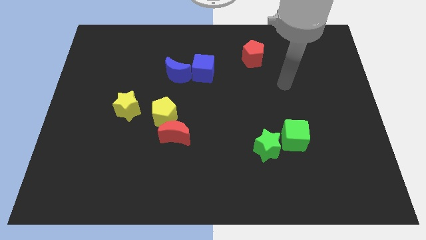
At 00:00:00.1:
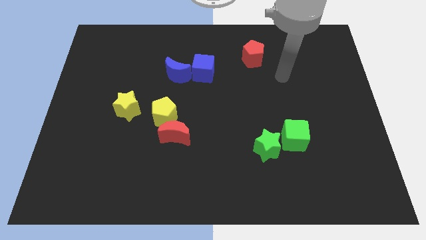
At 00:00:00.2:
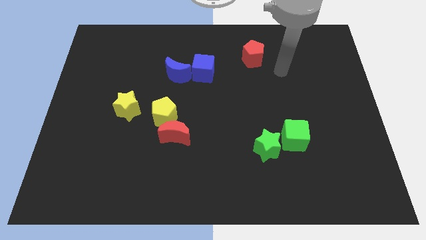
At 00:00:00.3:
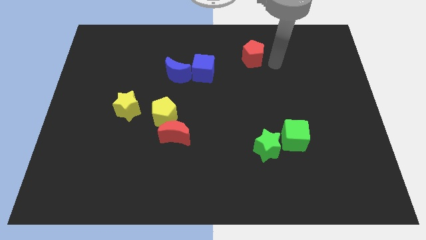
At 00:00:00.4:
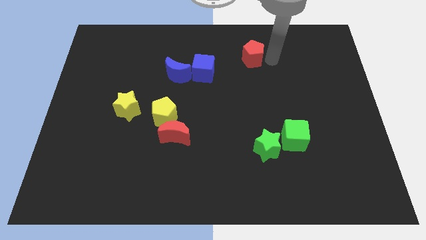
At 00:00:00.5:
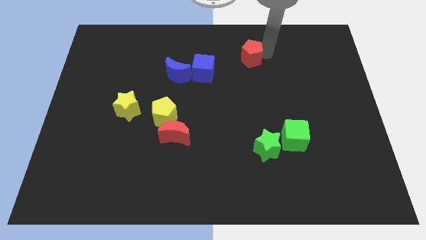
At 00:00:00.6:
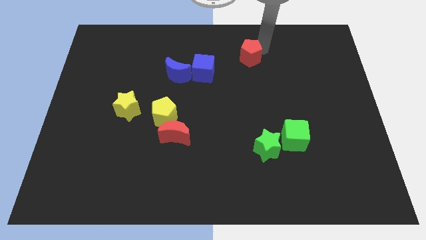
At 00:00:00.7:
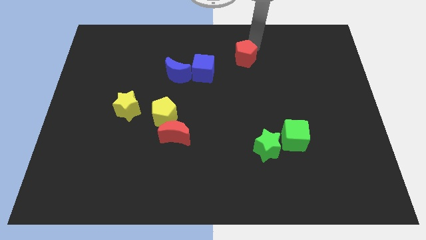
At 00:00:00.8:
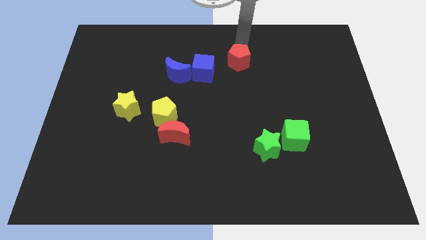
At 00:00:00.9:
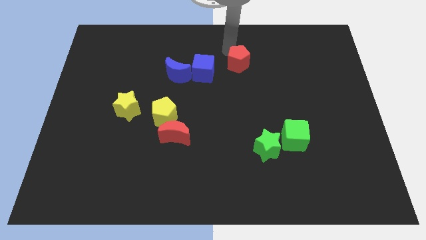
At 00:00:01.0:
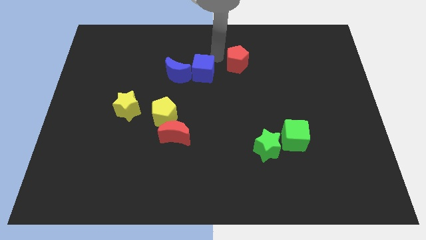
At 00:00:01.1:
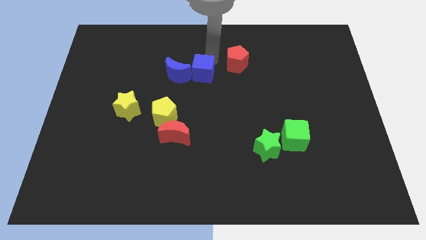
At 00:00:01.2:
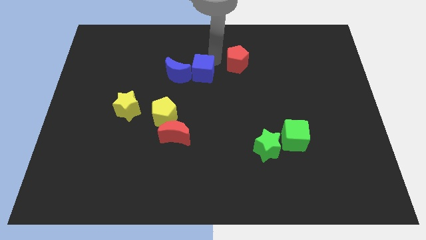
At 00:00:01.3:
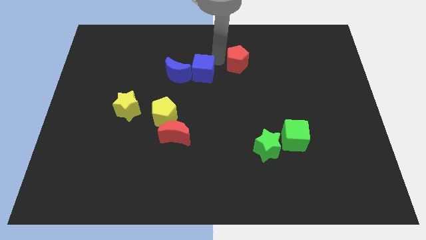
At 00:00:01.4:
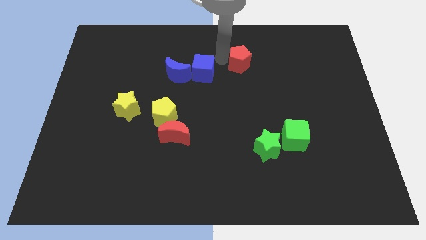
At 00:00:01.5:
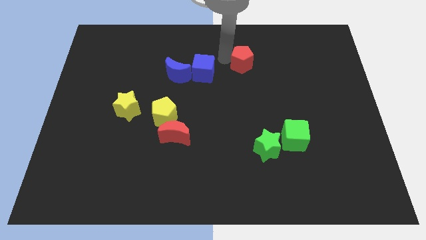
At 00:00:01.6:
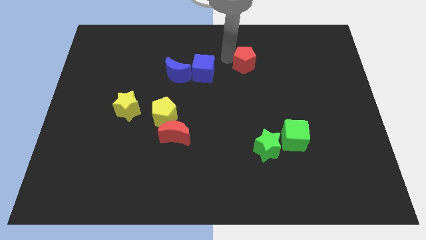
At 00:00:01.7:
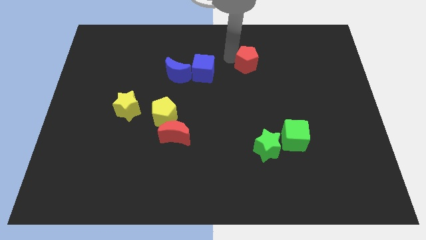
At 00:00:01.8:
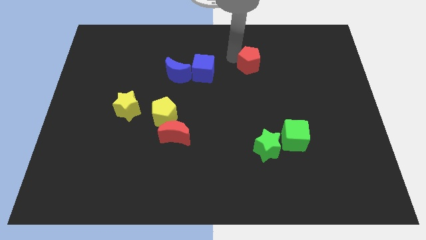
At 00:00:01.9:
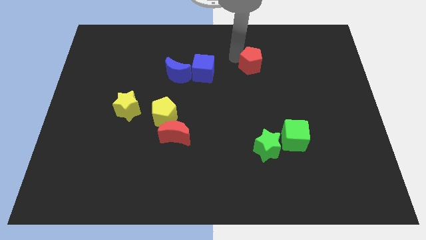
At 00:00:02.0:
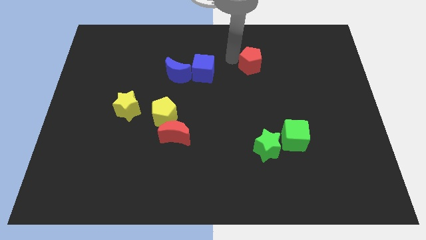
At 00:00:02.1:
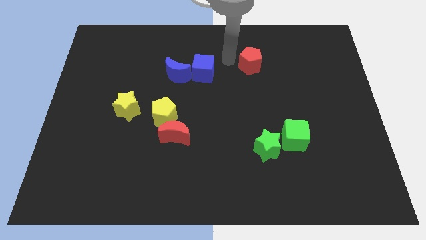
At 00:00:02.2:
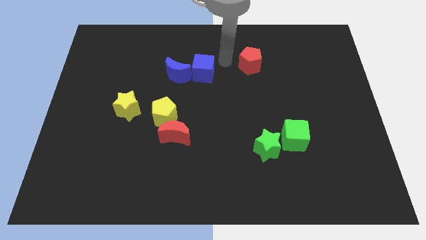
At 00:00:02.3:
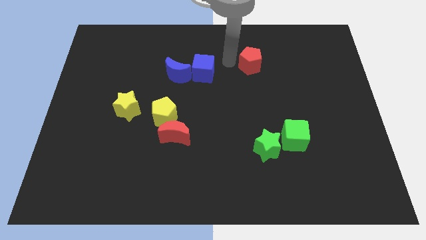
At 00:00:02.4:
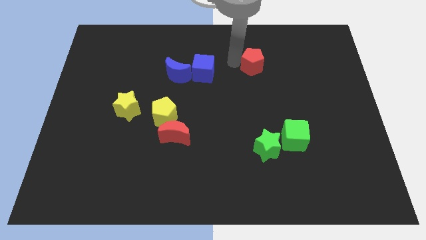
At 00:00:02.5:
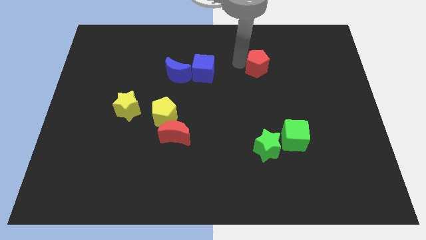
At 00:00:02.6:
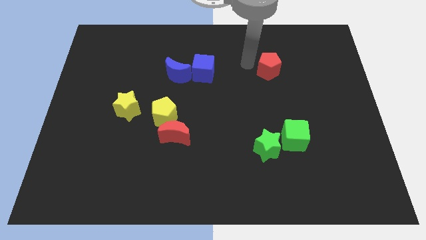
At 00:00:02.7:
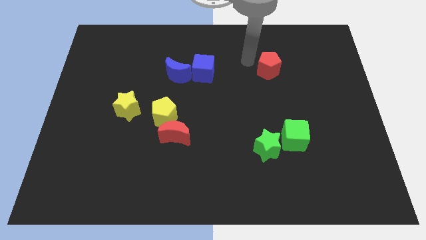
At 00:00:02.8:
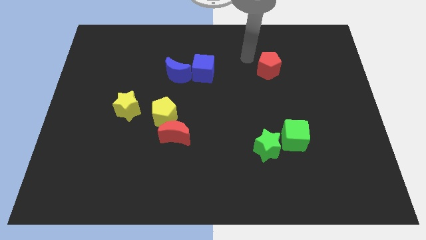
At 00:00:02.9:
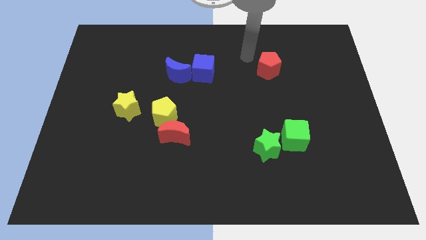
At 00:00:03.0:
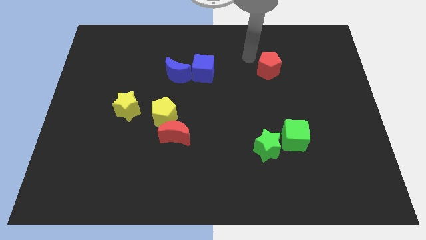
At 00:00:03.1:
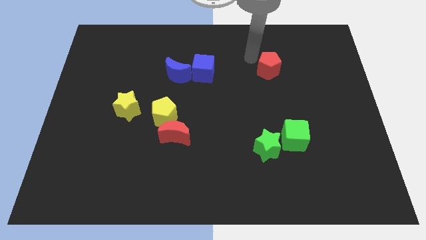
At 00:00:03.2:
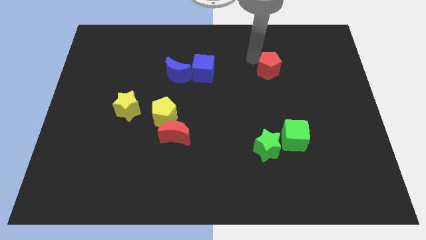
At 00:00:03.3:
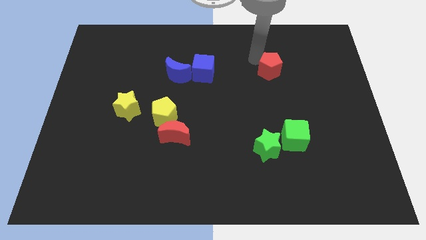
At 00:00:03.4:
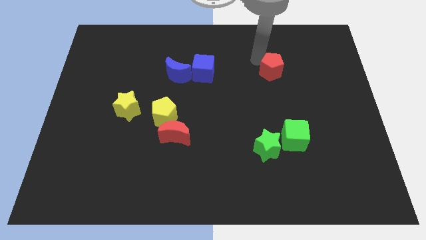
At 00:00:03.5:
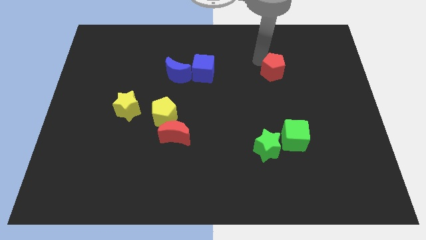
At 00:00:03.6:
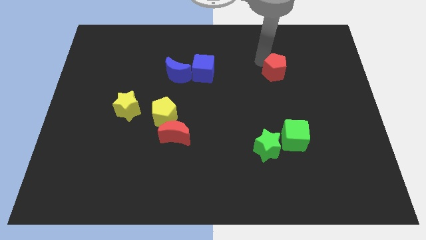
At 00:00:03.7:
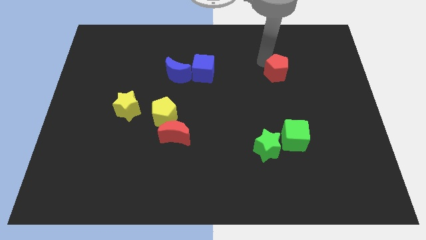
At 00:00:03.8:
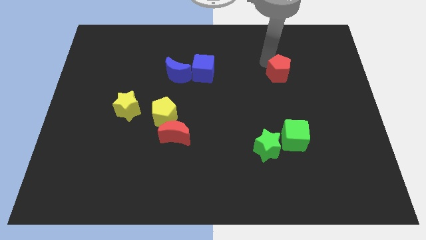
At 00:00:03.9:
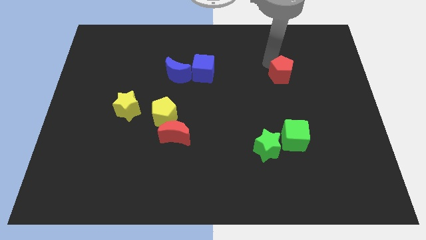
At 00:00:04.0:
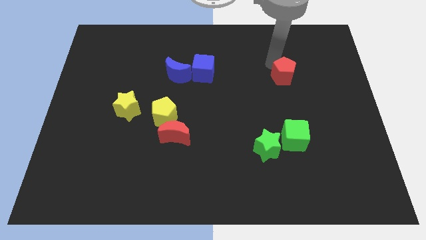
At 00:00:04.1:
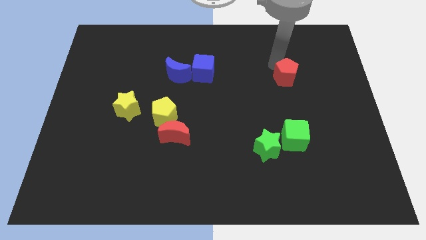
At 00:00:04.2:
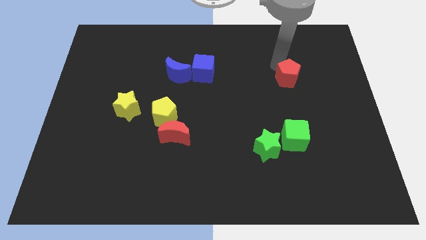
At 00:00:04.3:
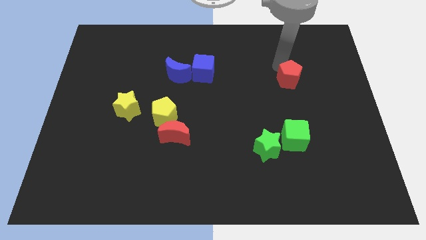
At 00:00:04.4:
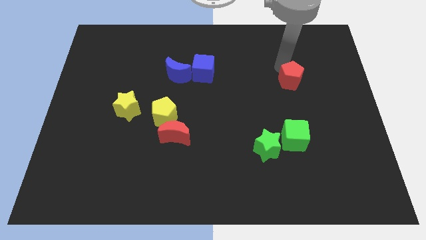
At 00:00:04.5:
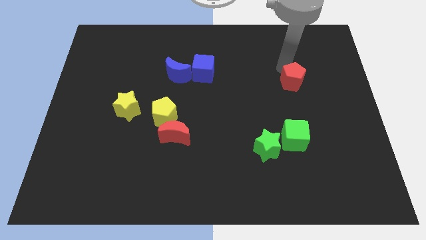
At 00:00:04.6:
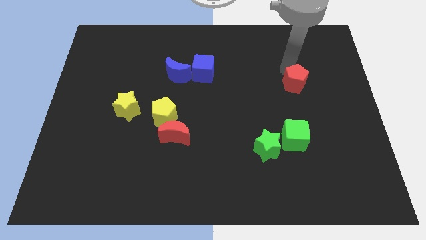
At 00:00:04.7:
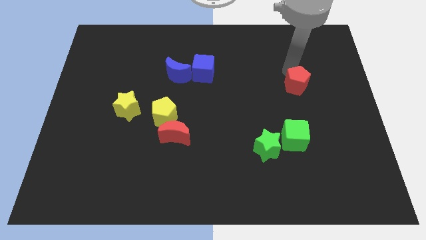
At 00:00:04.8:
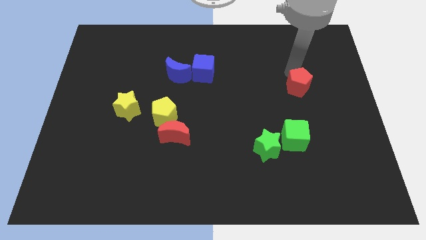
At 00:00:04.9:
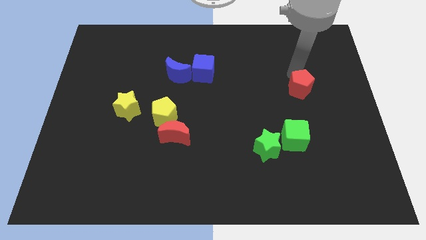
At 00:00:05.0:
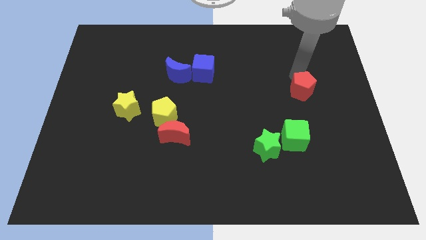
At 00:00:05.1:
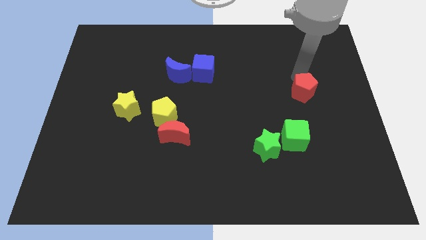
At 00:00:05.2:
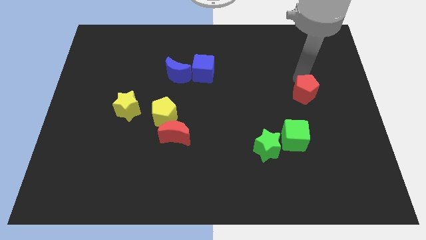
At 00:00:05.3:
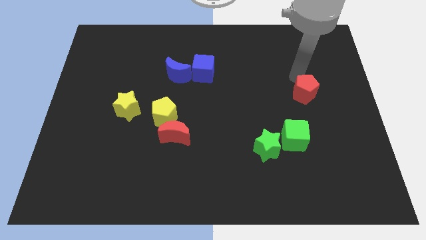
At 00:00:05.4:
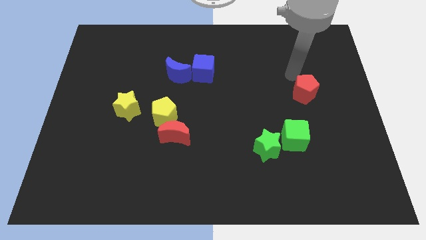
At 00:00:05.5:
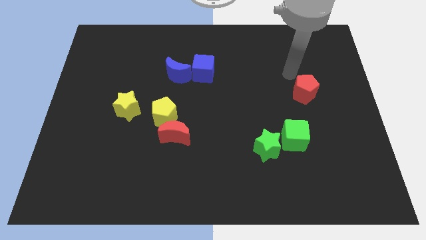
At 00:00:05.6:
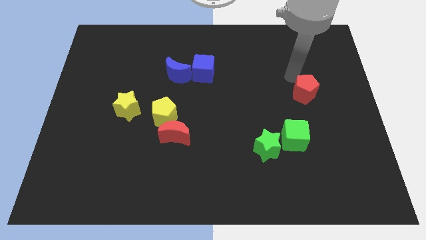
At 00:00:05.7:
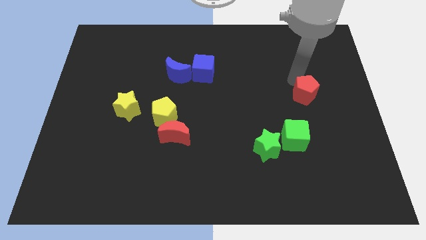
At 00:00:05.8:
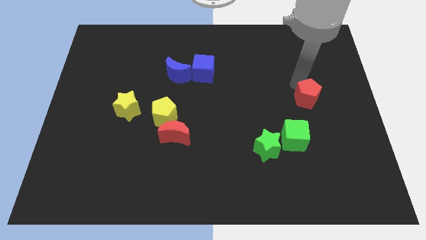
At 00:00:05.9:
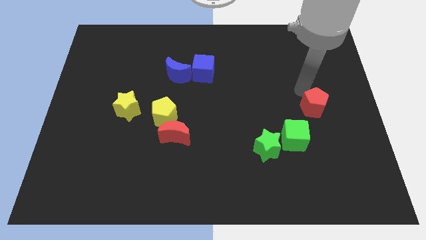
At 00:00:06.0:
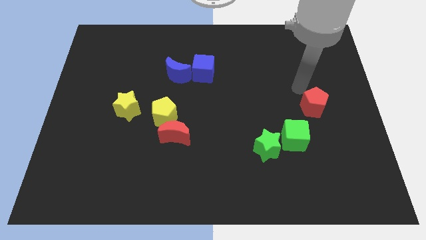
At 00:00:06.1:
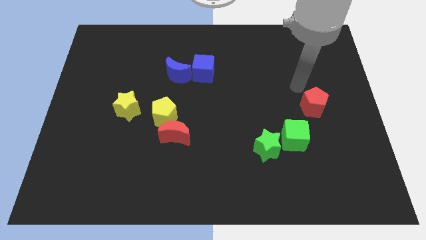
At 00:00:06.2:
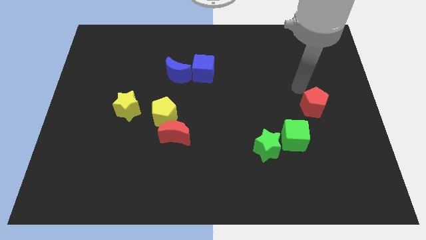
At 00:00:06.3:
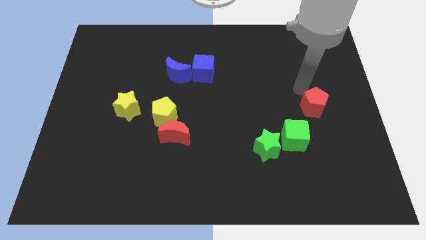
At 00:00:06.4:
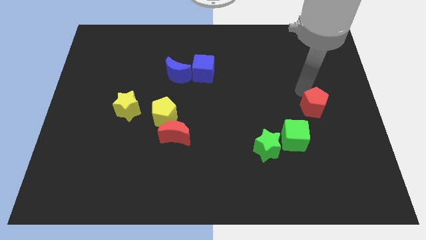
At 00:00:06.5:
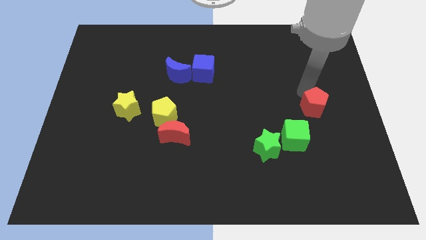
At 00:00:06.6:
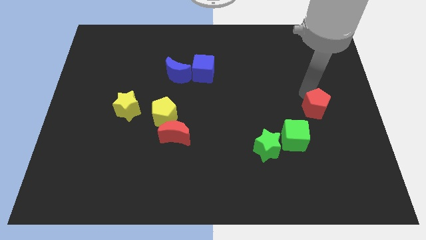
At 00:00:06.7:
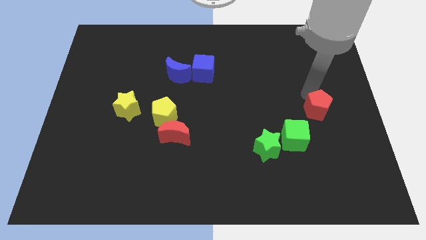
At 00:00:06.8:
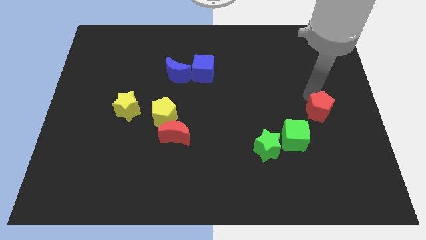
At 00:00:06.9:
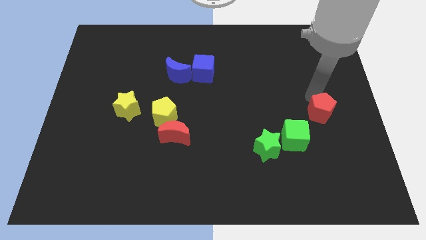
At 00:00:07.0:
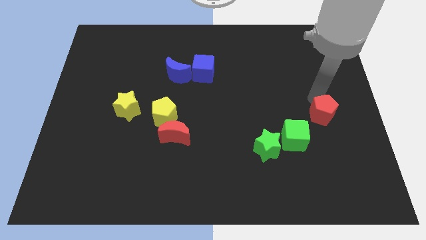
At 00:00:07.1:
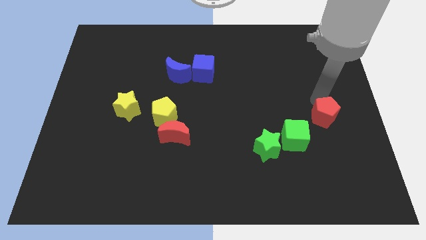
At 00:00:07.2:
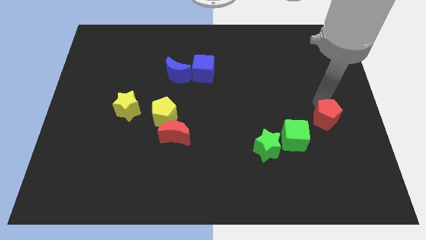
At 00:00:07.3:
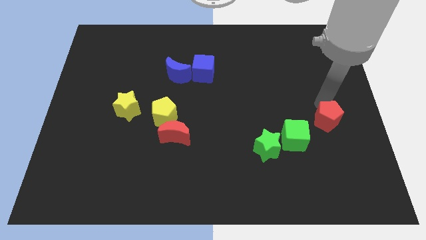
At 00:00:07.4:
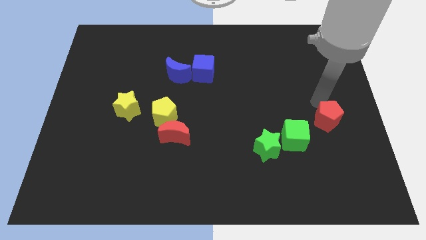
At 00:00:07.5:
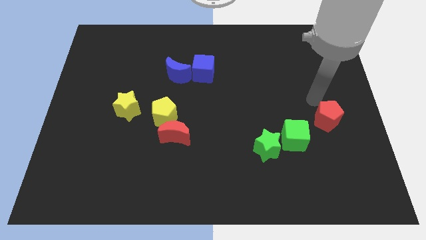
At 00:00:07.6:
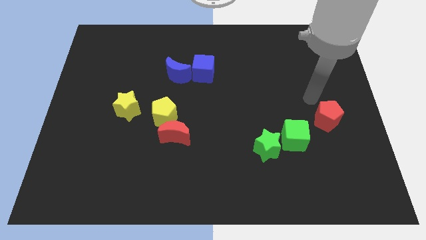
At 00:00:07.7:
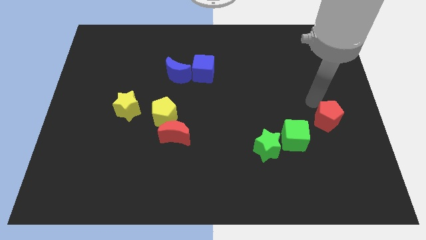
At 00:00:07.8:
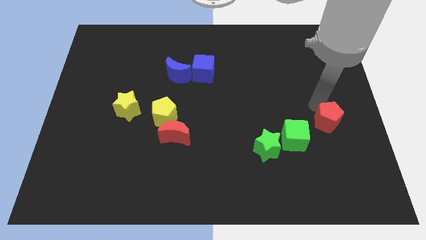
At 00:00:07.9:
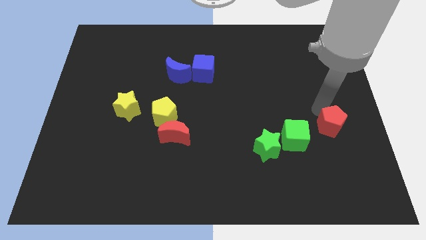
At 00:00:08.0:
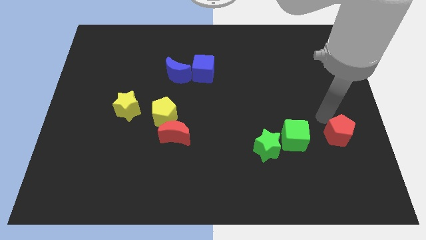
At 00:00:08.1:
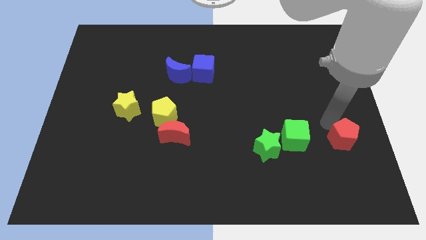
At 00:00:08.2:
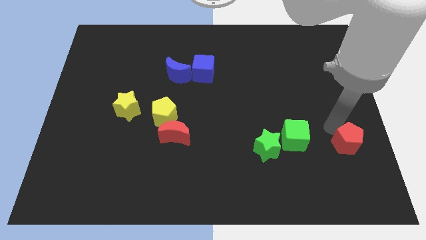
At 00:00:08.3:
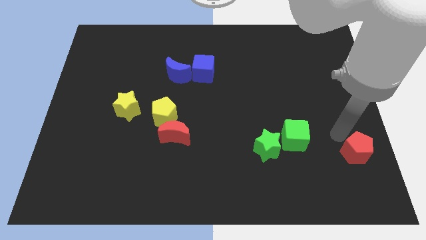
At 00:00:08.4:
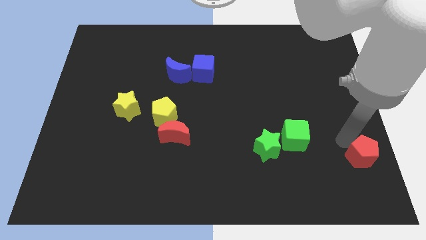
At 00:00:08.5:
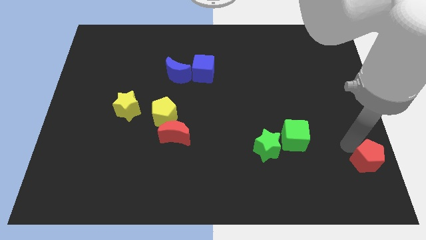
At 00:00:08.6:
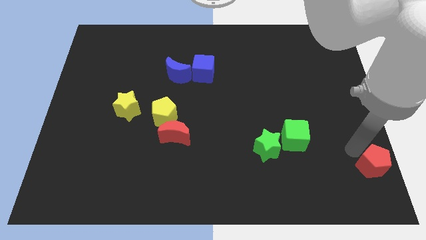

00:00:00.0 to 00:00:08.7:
move the red pentagon to the bottom right
